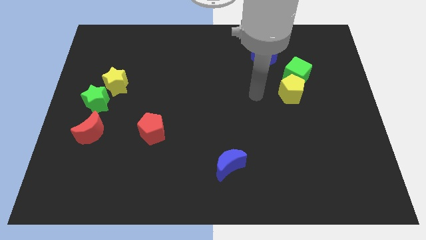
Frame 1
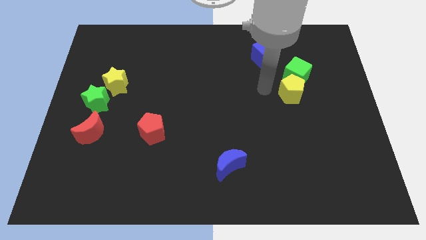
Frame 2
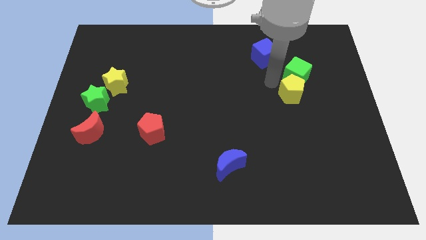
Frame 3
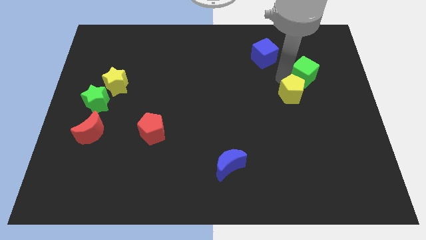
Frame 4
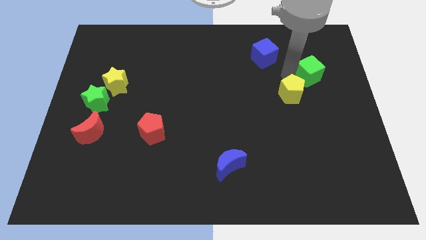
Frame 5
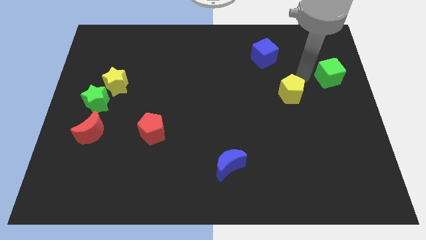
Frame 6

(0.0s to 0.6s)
move the yellow pentagon away from the green cube

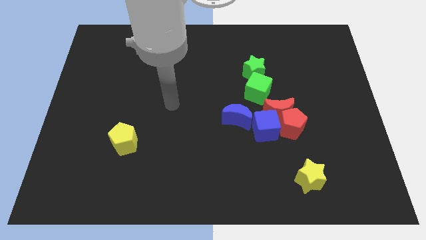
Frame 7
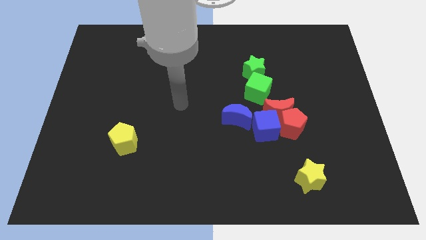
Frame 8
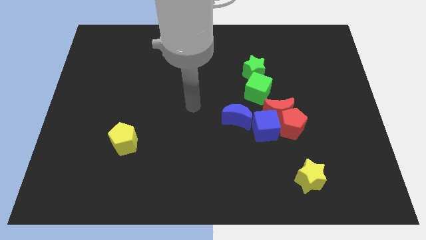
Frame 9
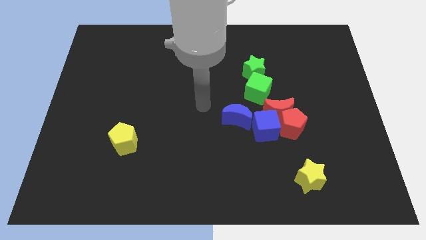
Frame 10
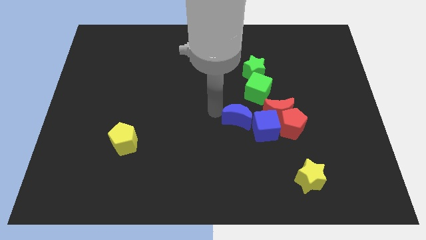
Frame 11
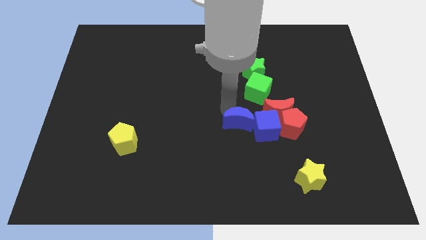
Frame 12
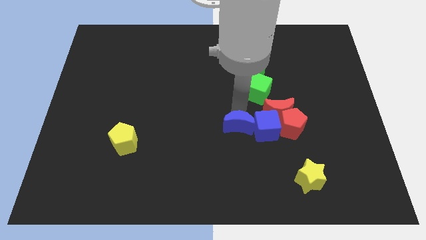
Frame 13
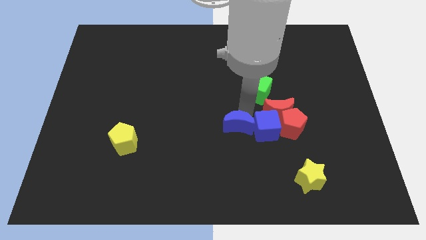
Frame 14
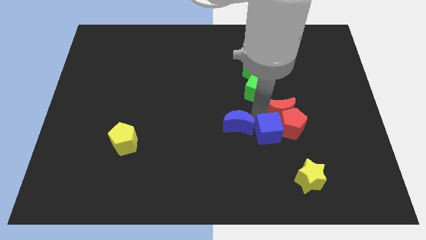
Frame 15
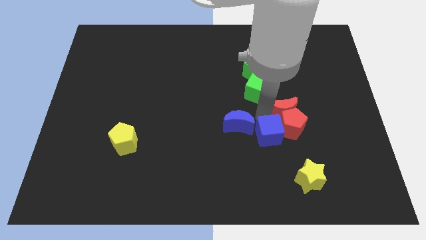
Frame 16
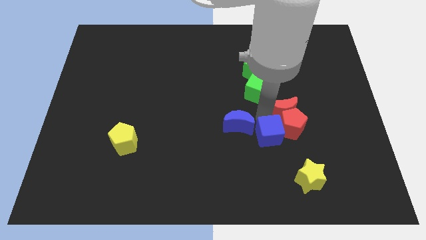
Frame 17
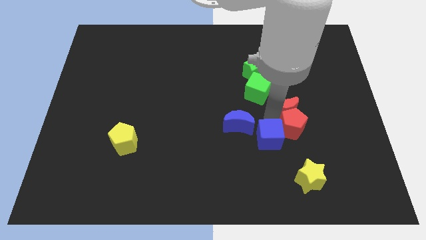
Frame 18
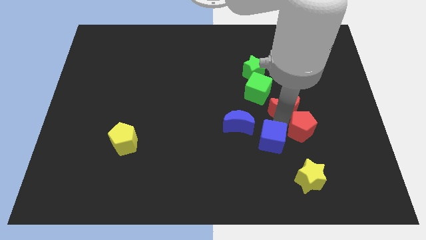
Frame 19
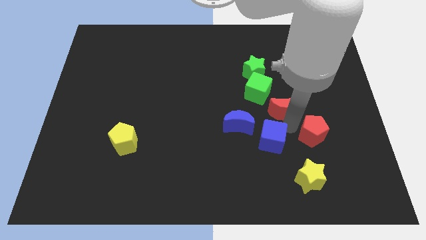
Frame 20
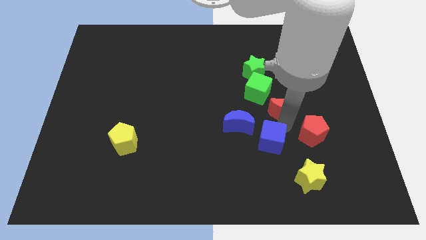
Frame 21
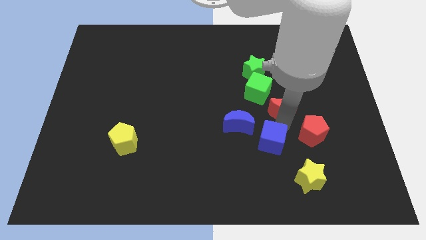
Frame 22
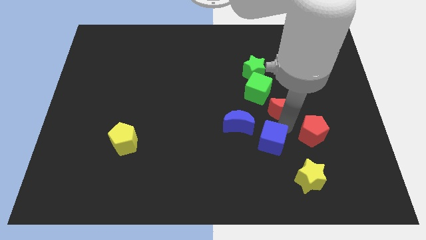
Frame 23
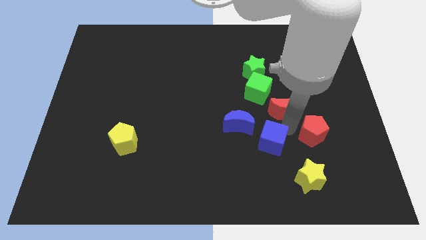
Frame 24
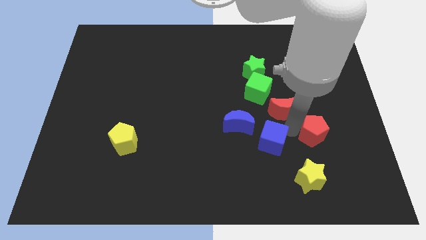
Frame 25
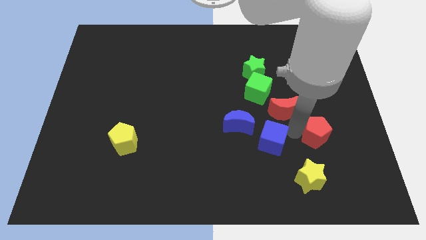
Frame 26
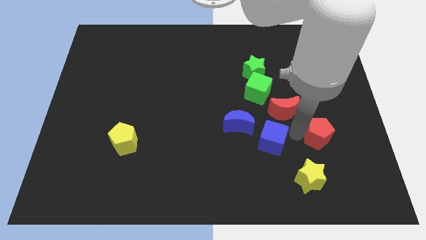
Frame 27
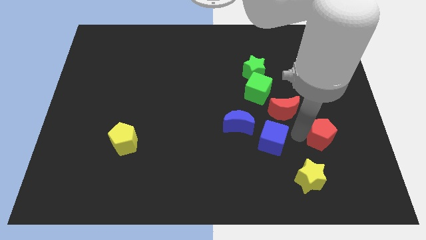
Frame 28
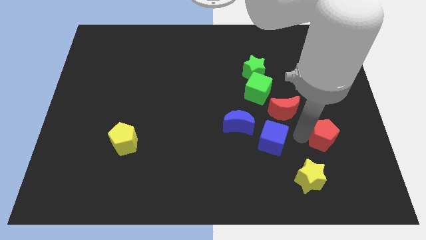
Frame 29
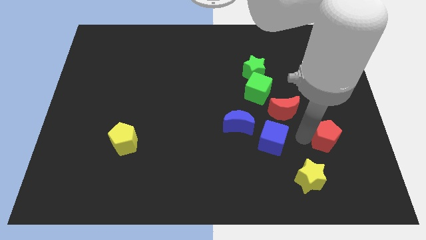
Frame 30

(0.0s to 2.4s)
pull the red pentagon apart from the red moon and blue cube

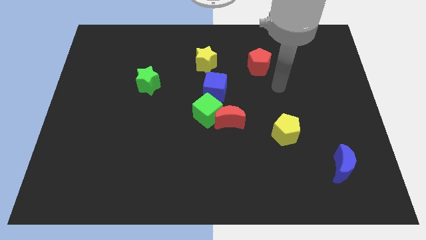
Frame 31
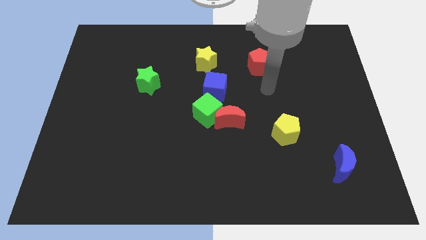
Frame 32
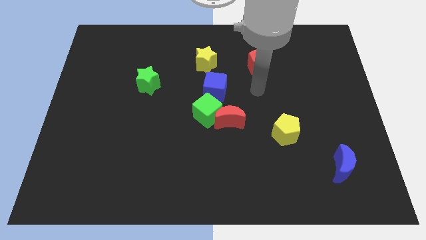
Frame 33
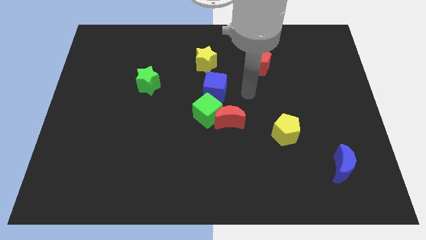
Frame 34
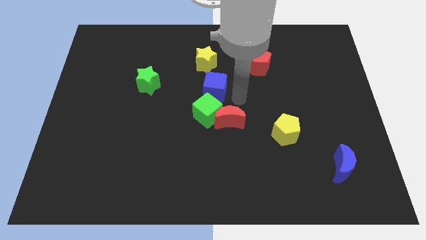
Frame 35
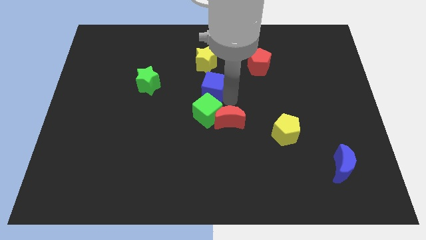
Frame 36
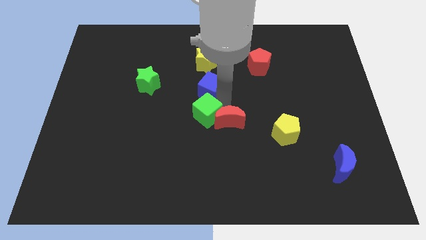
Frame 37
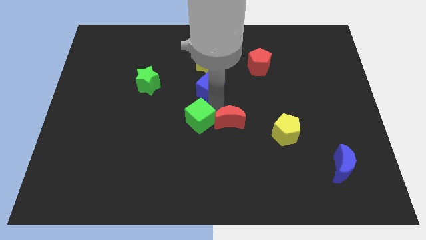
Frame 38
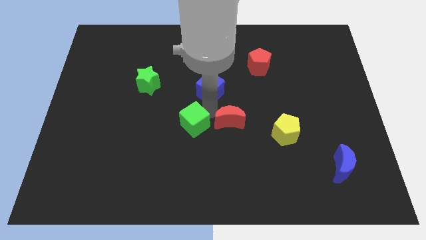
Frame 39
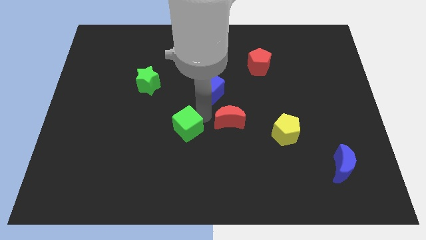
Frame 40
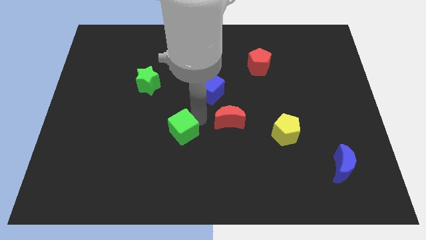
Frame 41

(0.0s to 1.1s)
separate the green cube from the red moon and blue cube

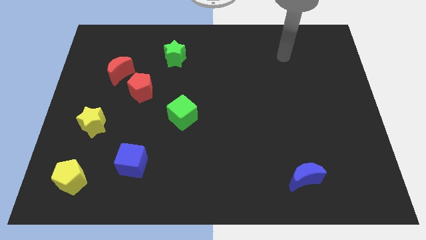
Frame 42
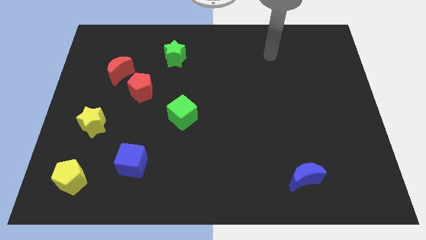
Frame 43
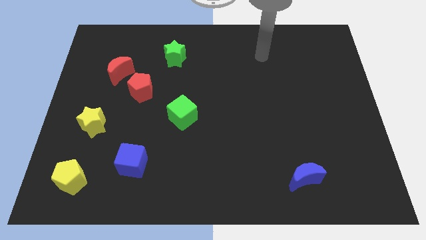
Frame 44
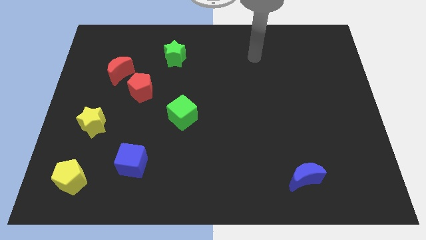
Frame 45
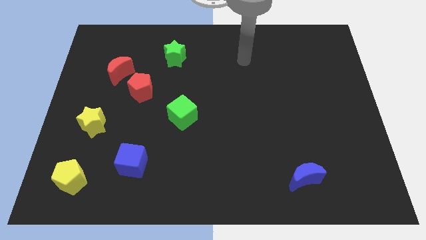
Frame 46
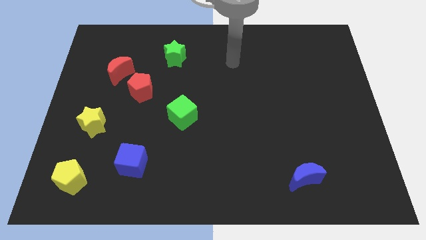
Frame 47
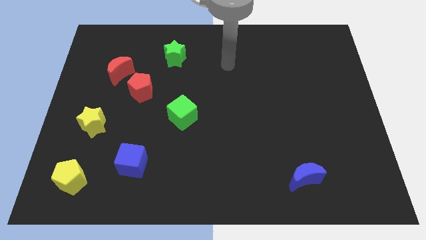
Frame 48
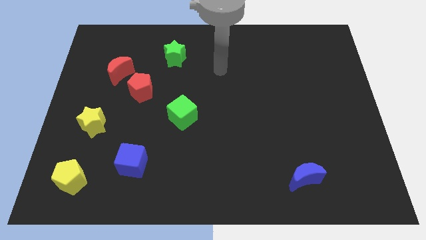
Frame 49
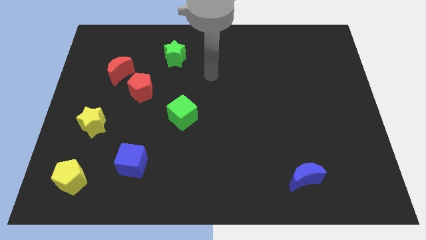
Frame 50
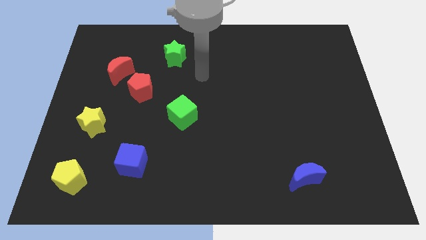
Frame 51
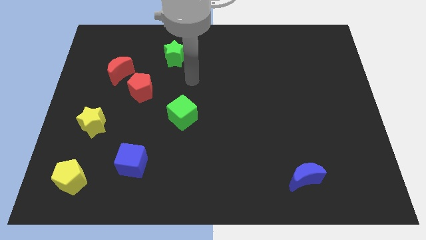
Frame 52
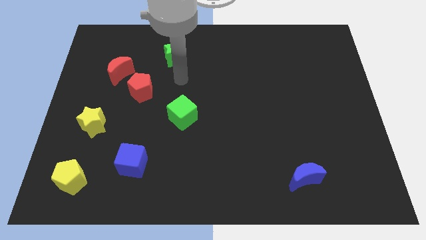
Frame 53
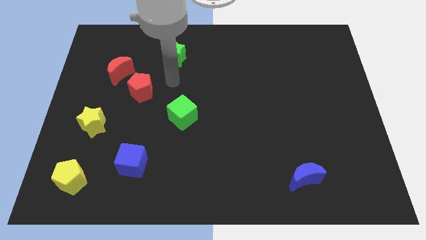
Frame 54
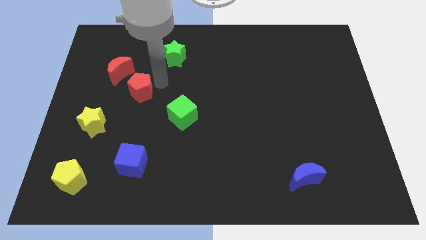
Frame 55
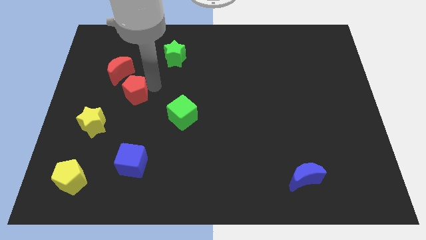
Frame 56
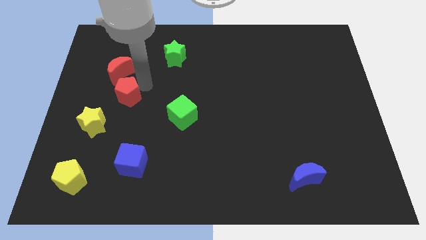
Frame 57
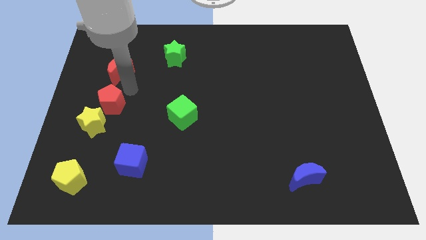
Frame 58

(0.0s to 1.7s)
pull the red moon apart from the red pentagon

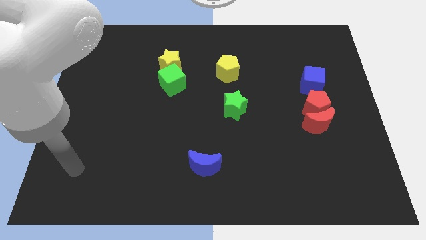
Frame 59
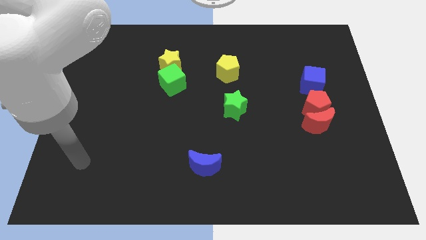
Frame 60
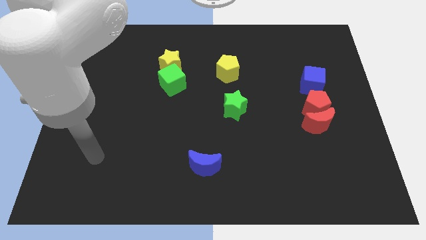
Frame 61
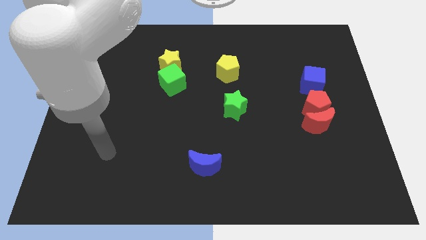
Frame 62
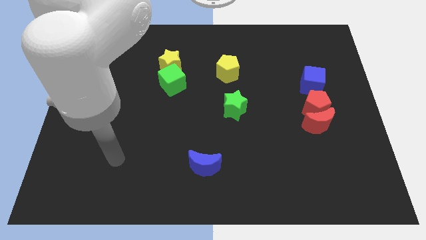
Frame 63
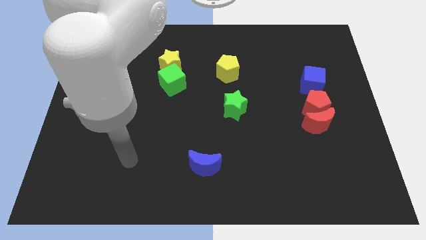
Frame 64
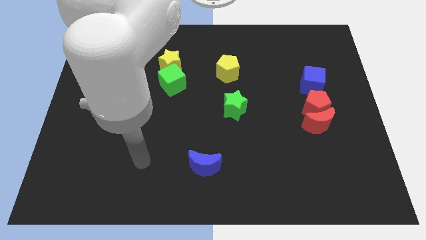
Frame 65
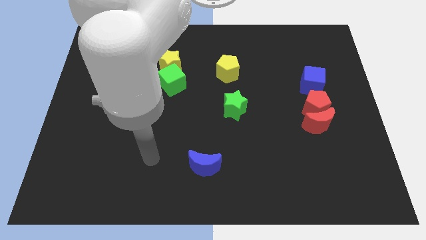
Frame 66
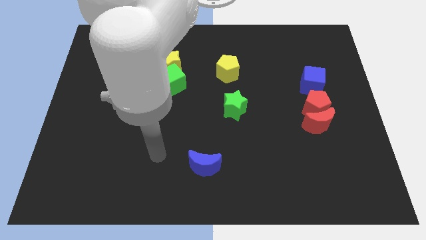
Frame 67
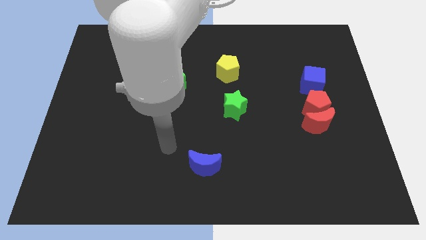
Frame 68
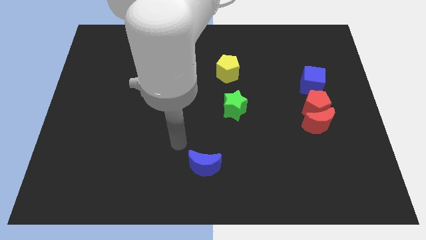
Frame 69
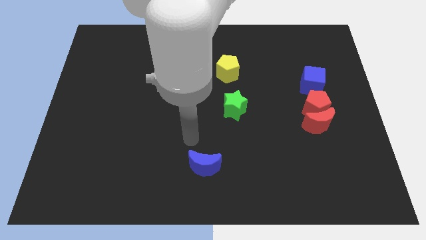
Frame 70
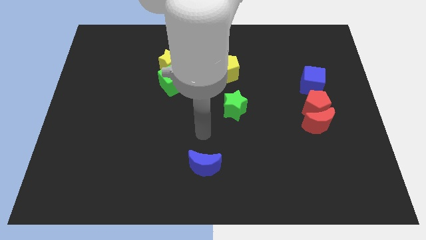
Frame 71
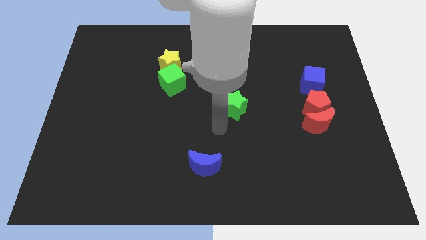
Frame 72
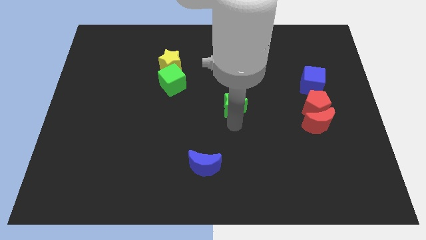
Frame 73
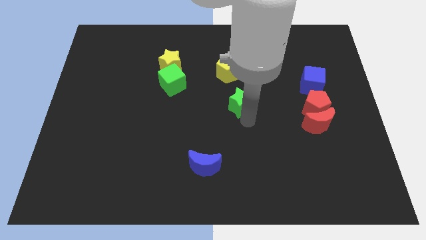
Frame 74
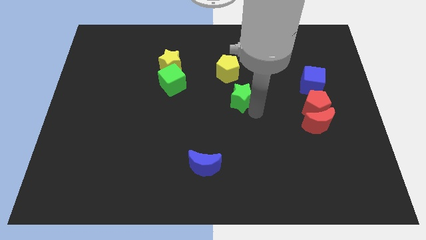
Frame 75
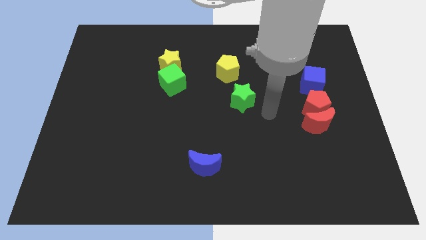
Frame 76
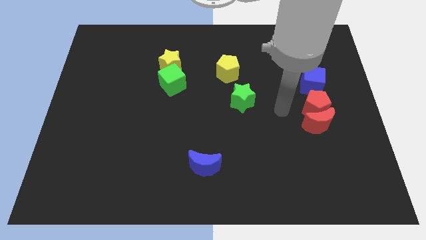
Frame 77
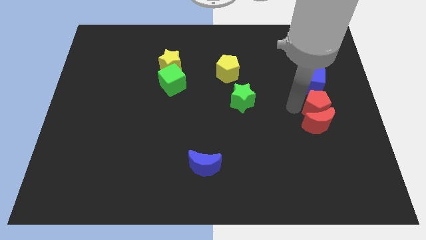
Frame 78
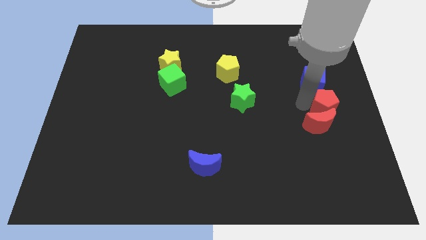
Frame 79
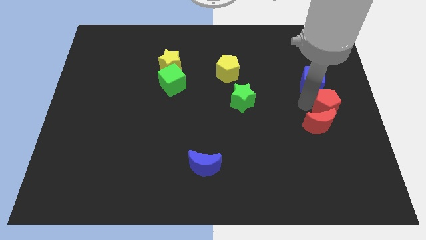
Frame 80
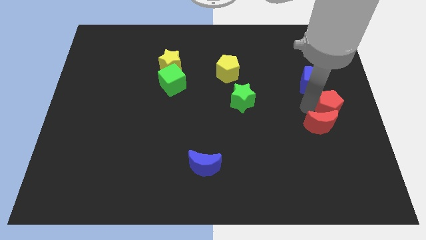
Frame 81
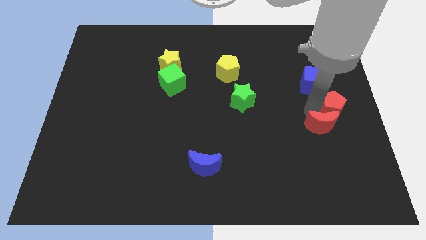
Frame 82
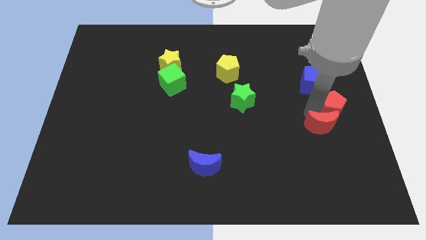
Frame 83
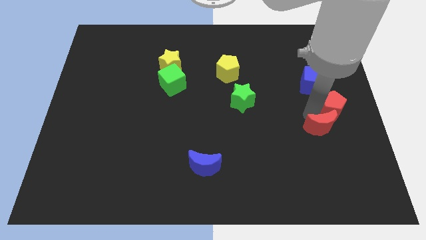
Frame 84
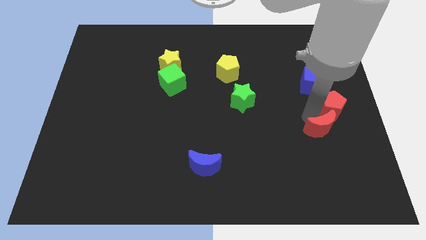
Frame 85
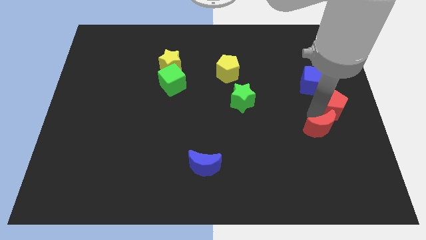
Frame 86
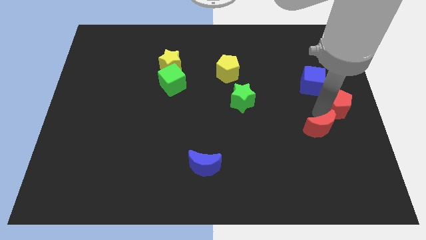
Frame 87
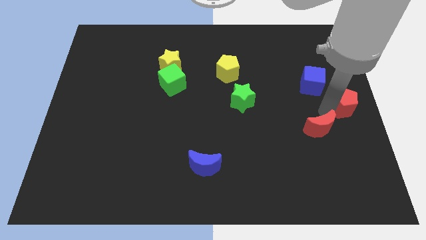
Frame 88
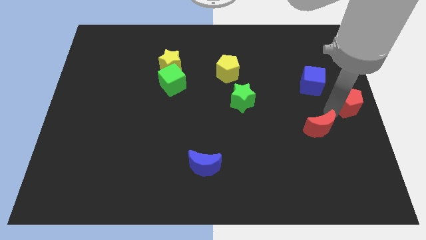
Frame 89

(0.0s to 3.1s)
separate the red moon from the red pentagon

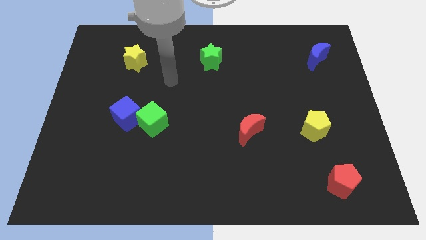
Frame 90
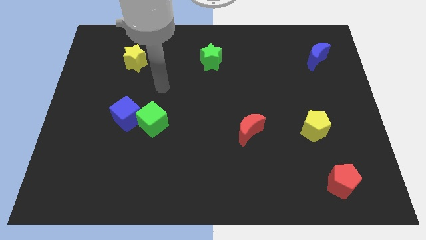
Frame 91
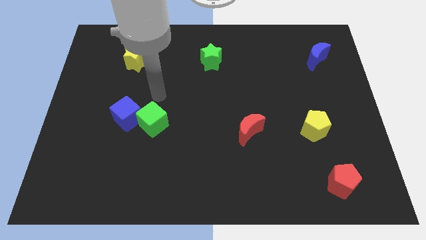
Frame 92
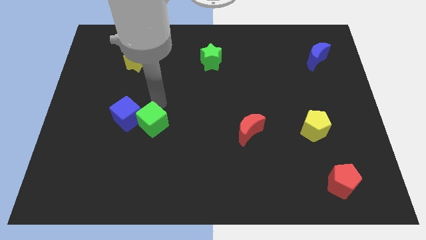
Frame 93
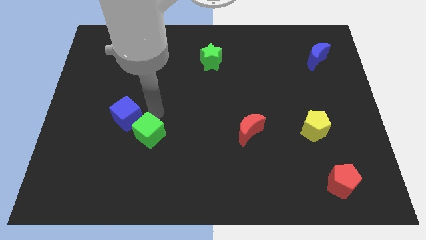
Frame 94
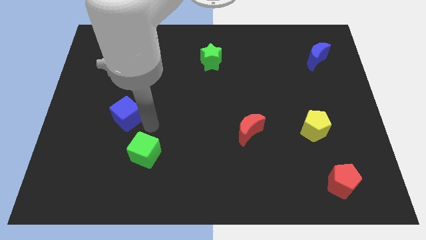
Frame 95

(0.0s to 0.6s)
pull the blue cube apart from the green cube
